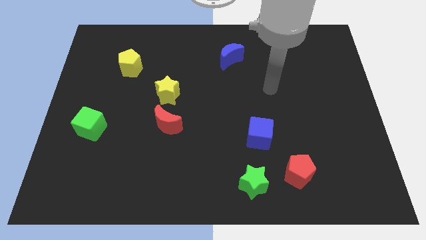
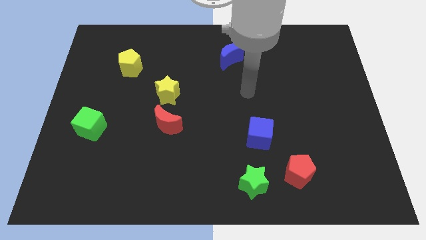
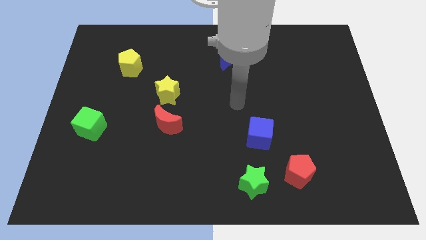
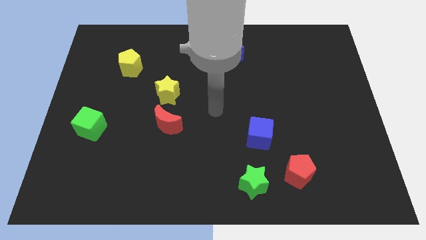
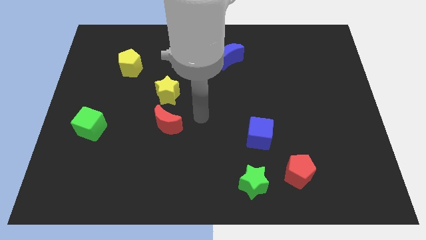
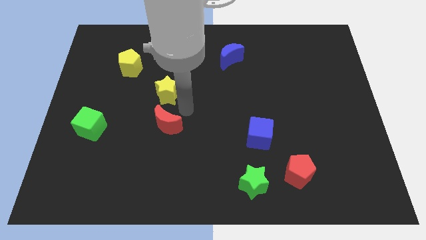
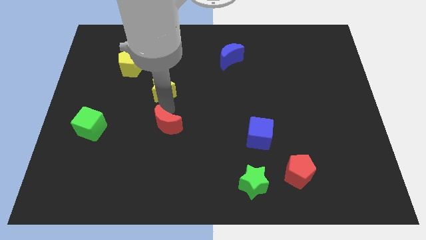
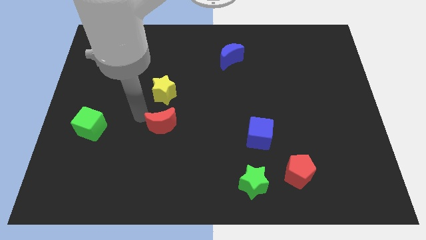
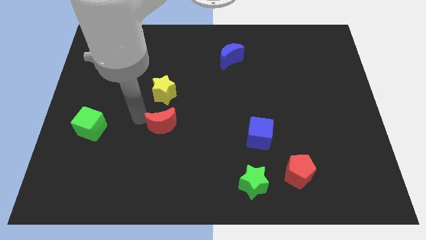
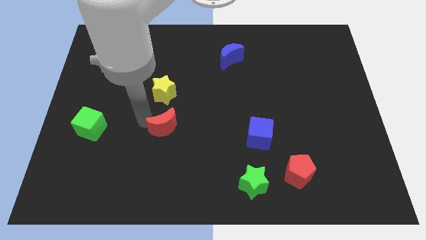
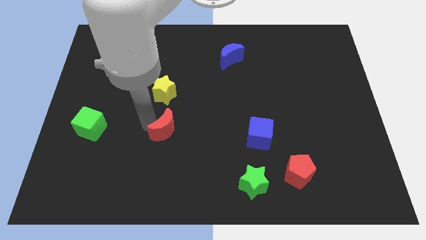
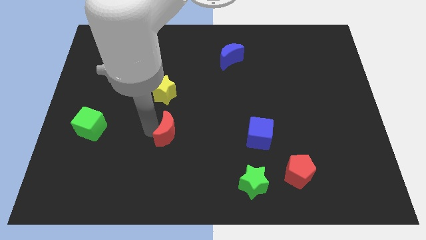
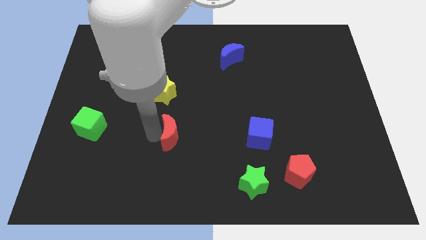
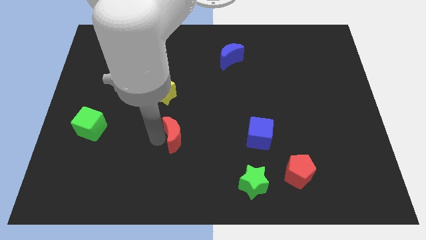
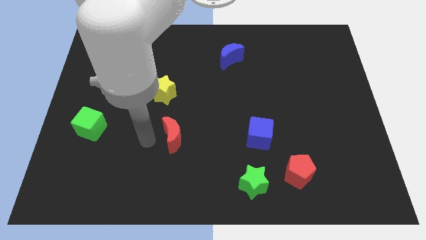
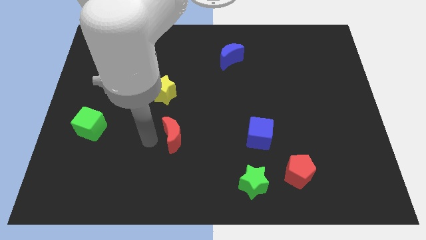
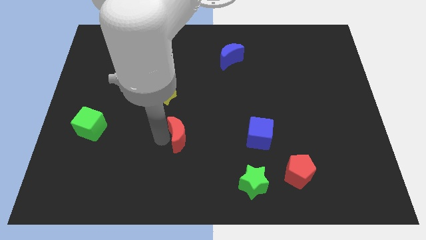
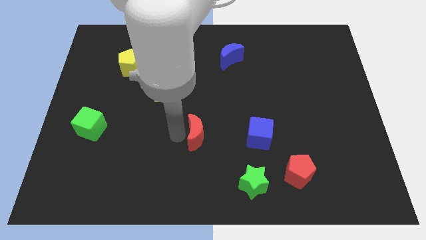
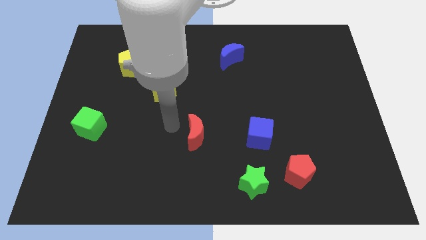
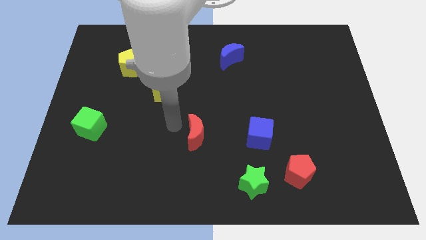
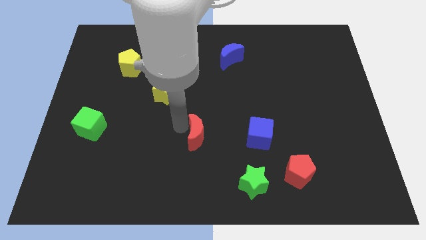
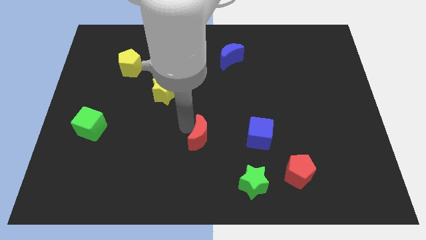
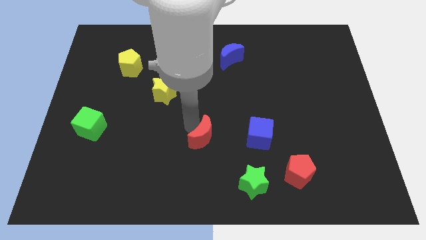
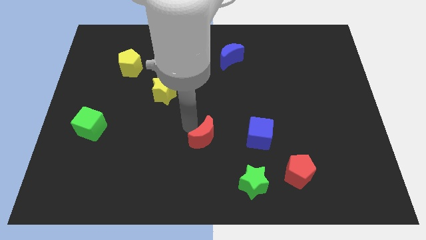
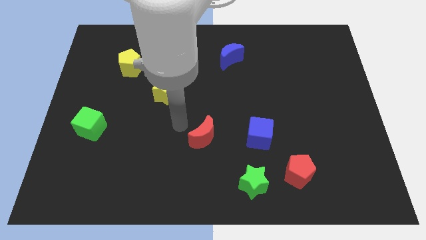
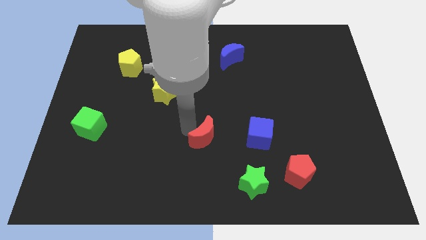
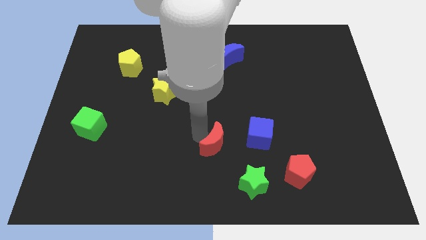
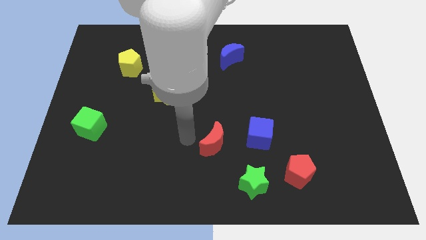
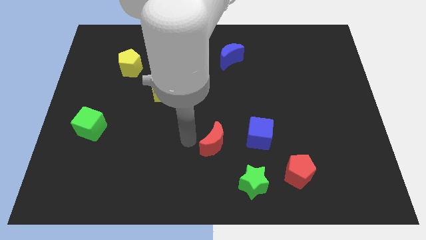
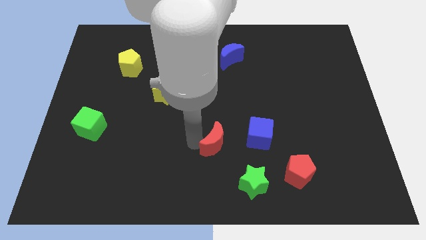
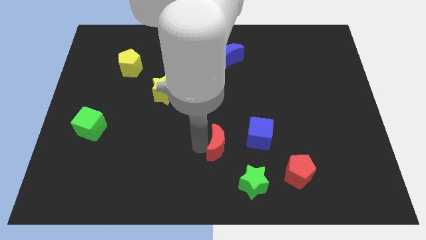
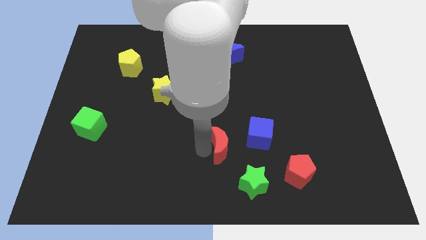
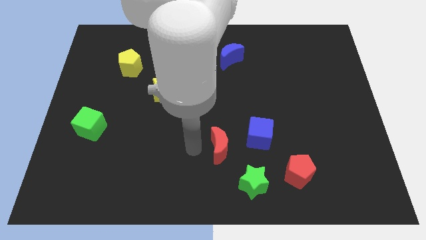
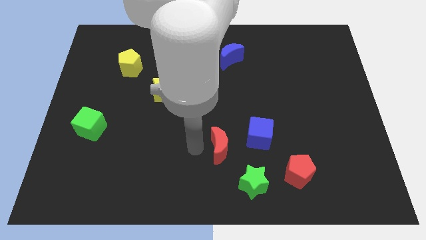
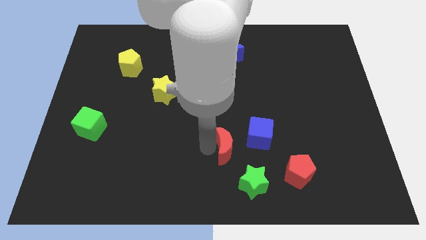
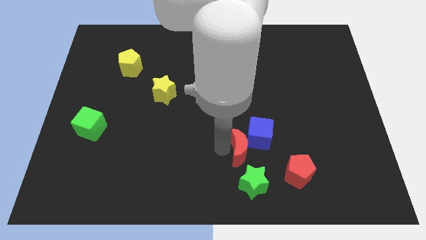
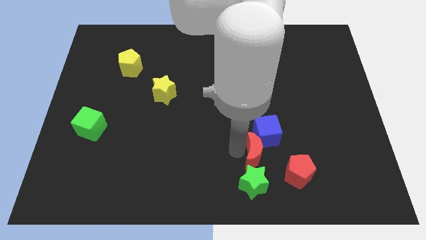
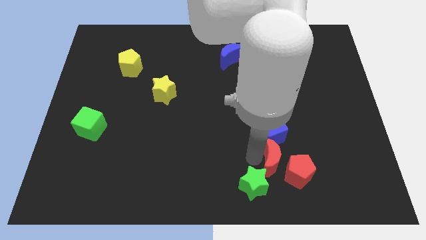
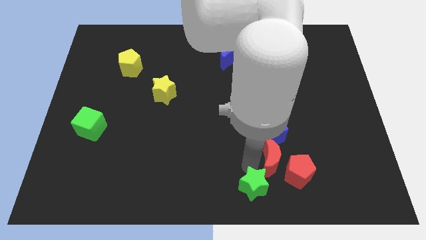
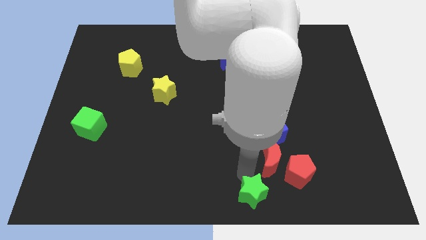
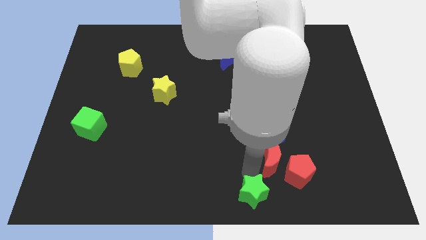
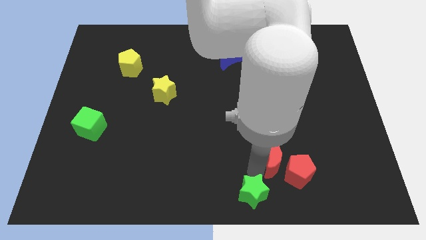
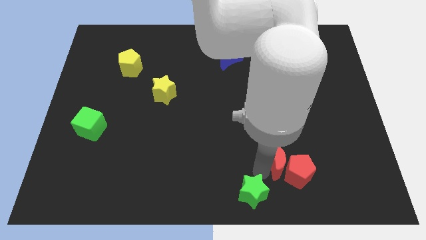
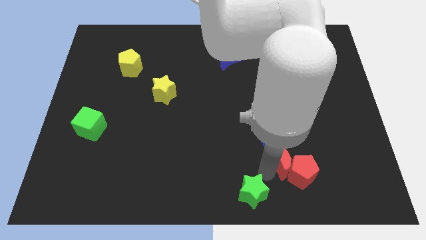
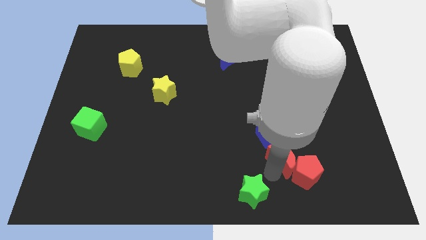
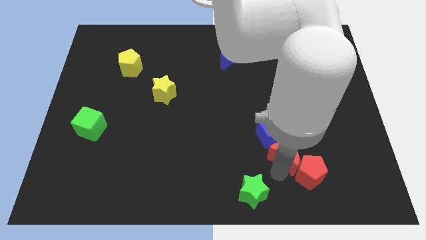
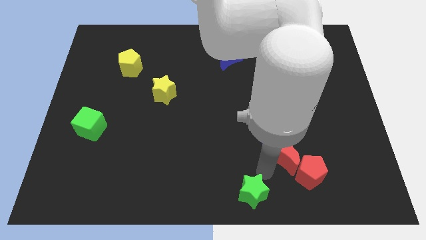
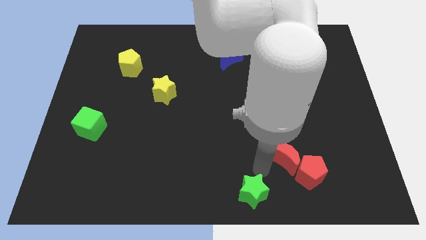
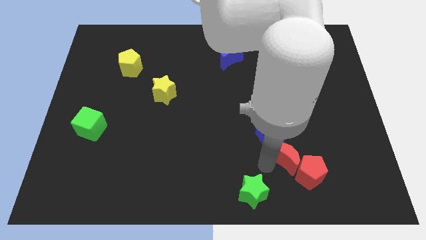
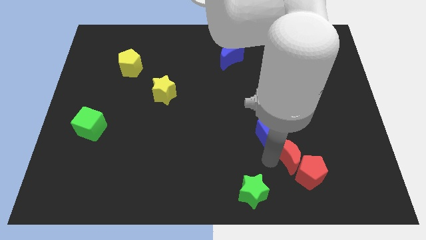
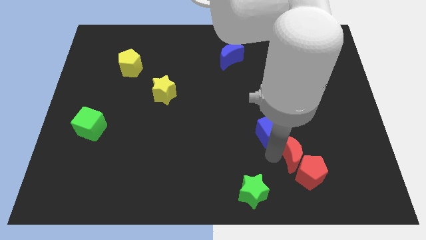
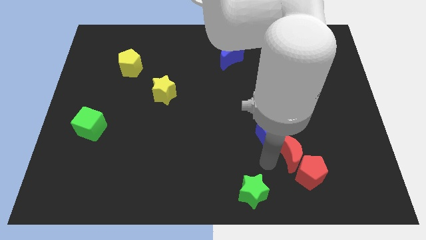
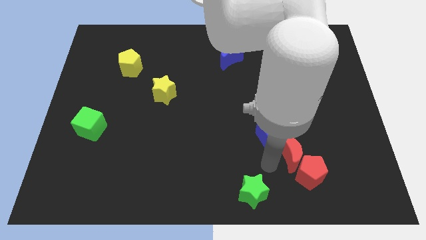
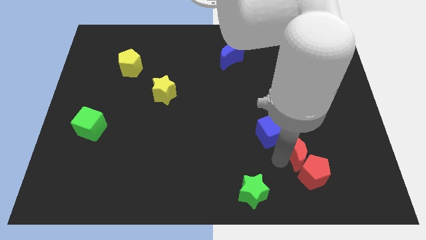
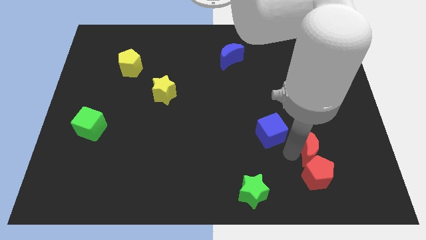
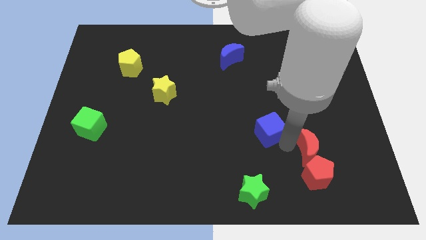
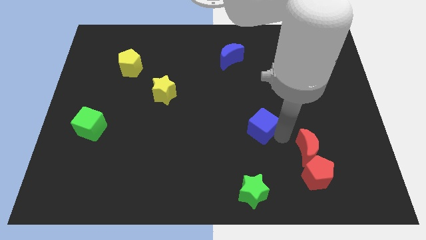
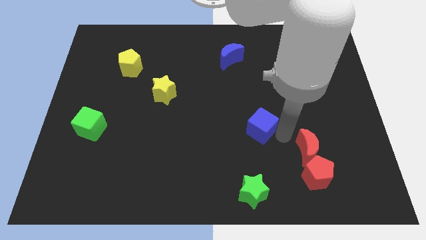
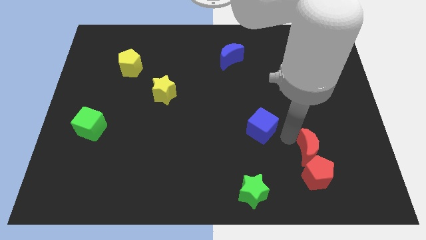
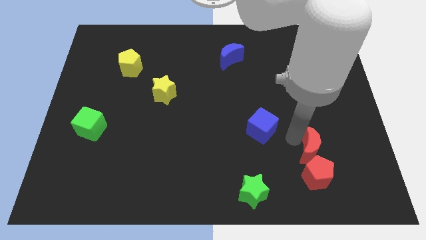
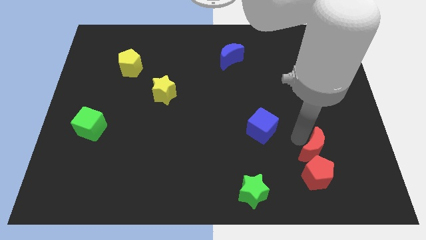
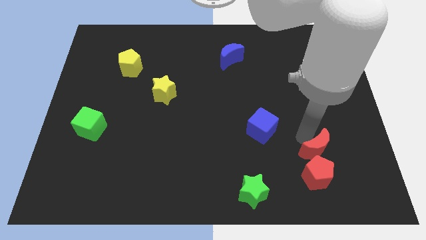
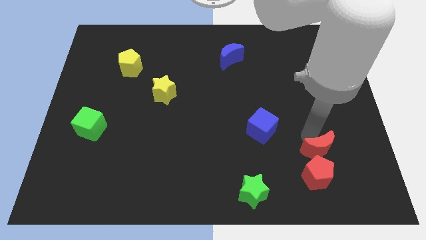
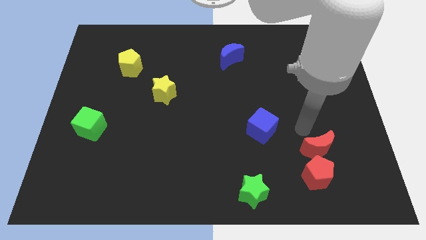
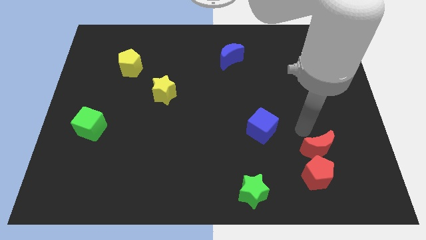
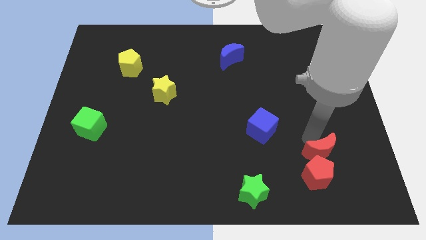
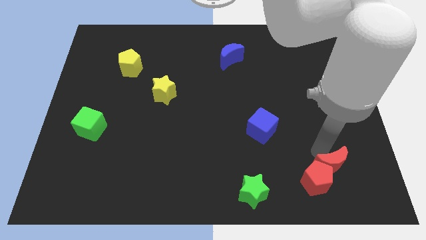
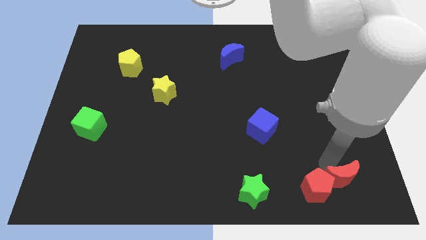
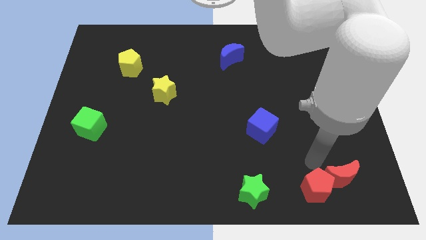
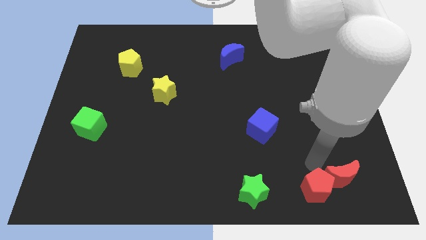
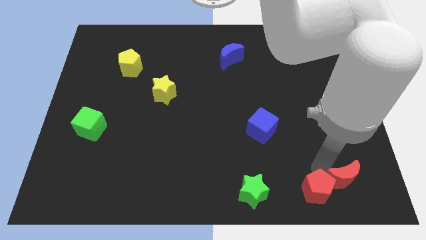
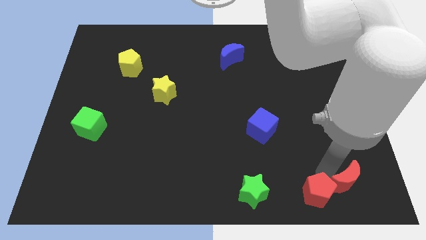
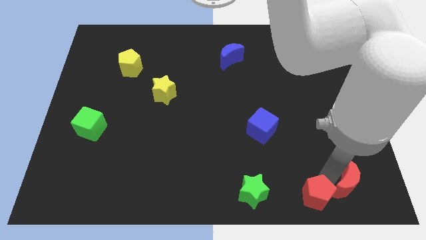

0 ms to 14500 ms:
push the red moon to the bottom right of the board
